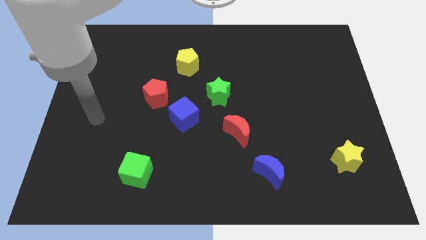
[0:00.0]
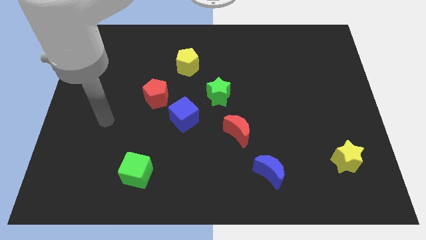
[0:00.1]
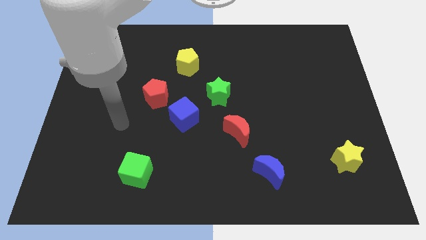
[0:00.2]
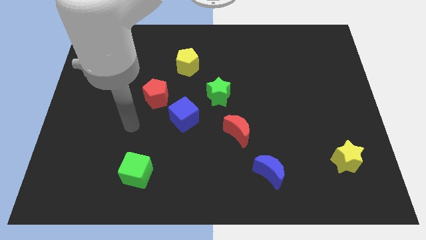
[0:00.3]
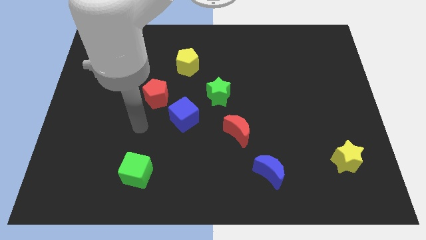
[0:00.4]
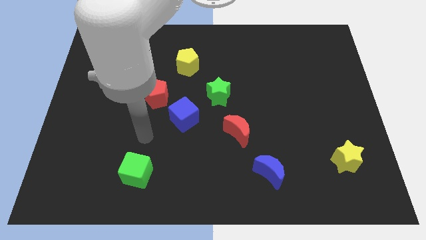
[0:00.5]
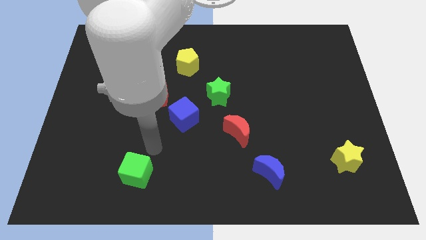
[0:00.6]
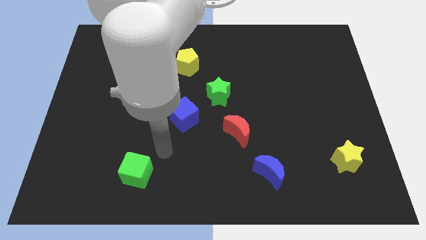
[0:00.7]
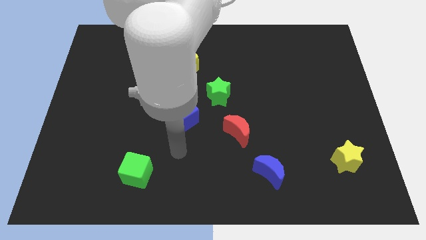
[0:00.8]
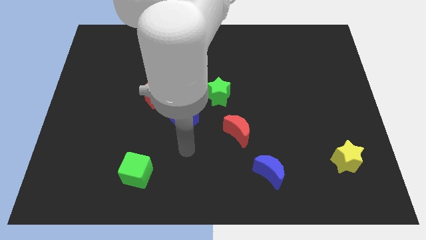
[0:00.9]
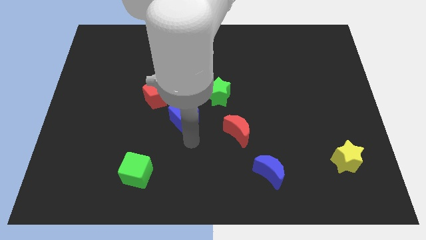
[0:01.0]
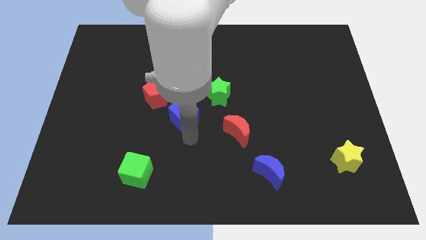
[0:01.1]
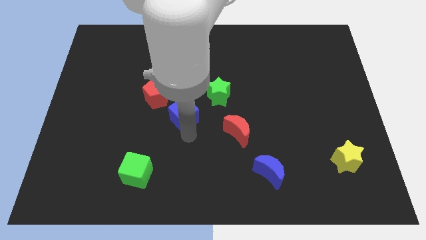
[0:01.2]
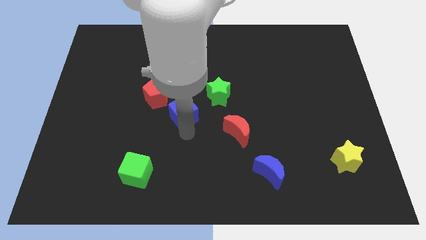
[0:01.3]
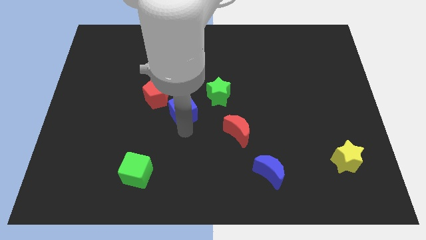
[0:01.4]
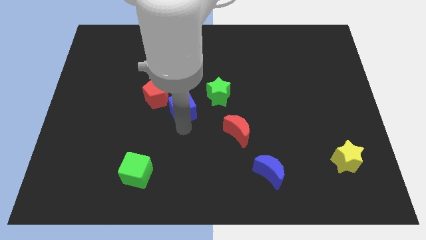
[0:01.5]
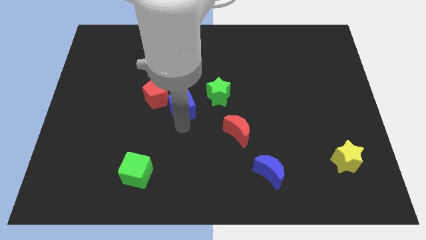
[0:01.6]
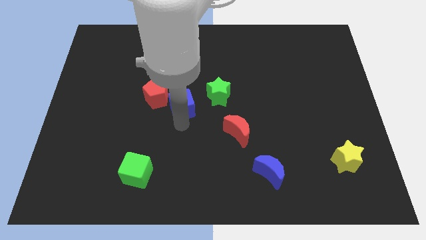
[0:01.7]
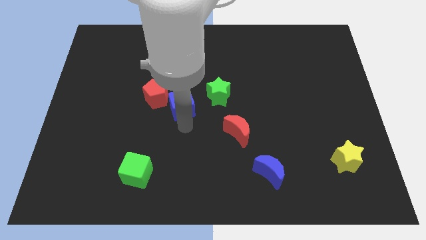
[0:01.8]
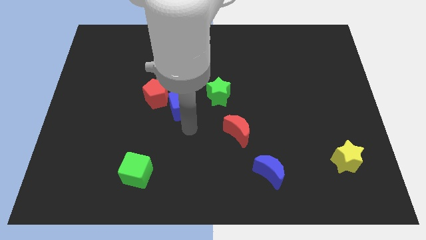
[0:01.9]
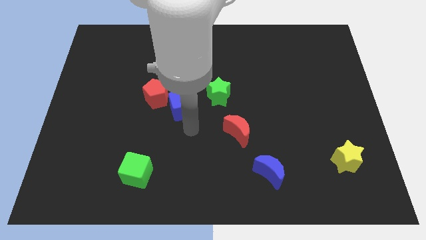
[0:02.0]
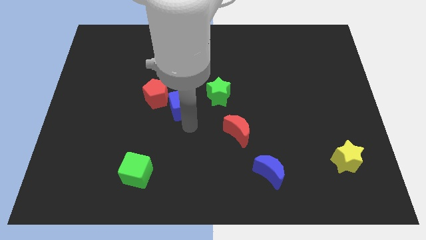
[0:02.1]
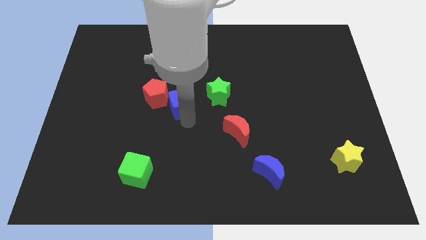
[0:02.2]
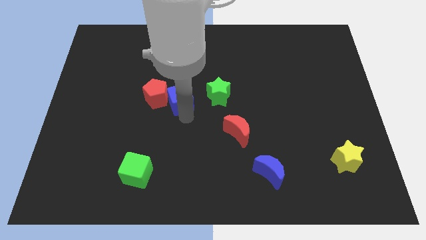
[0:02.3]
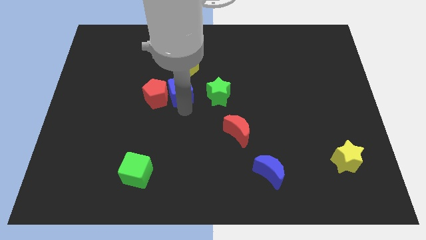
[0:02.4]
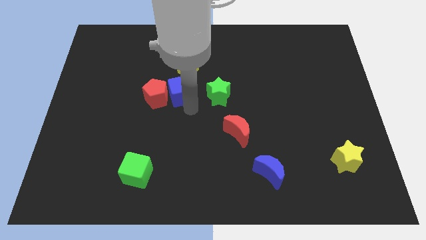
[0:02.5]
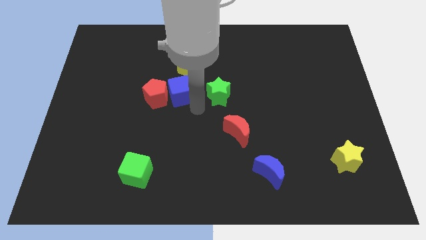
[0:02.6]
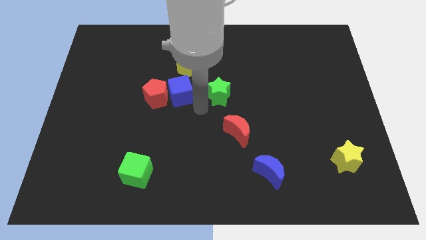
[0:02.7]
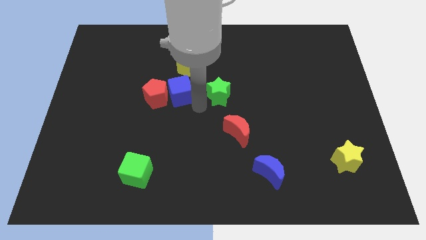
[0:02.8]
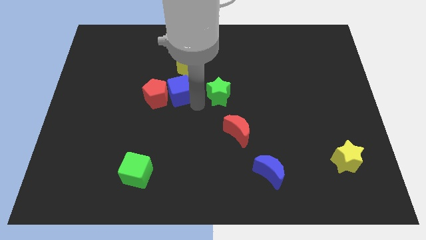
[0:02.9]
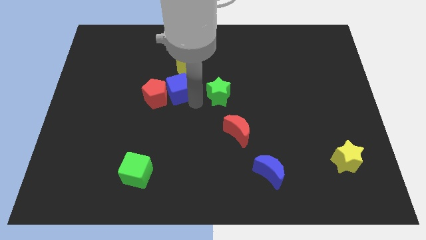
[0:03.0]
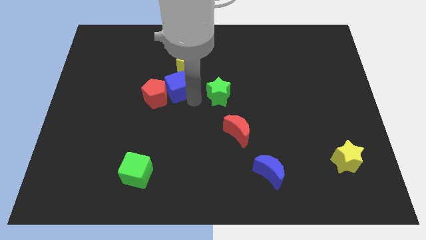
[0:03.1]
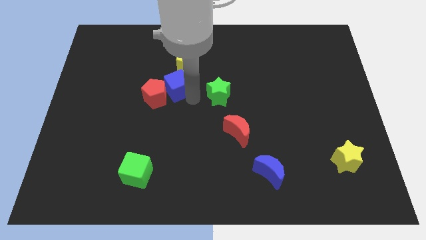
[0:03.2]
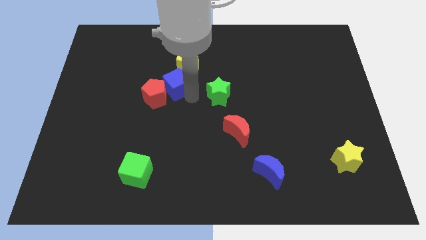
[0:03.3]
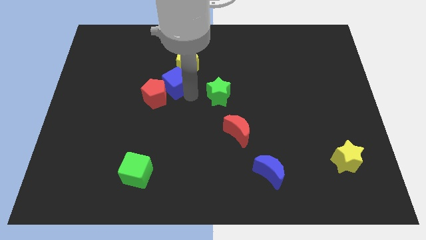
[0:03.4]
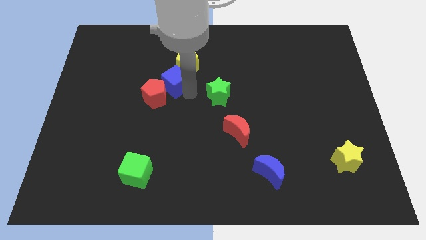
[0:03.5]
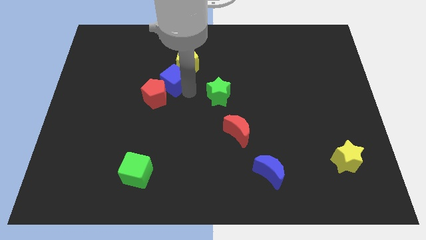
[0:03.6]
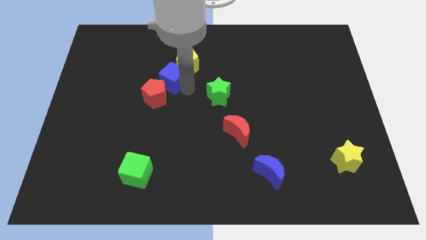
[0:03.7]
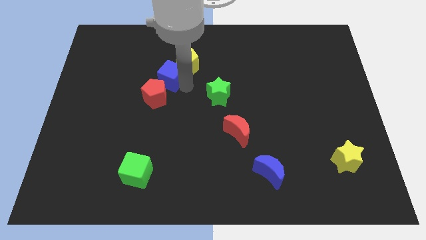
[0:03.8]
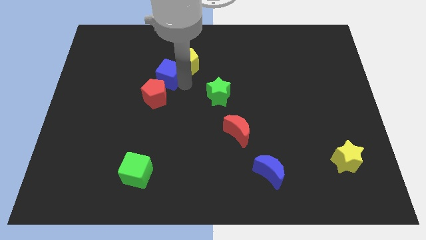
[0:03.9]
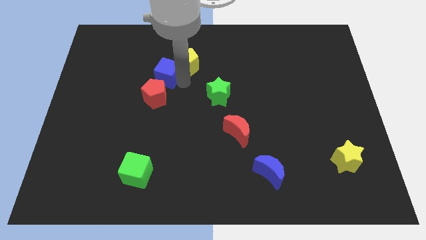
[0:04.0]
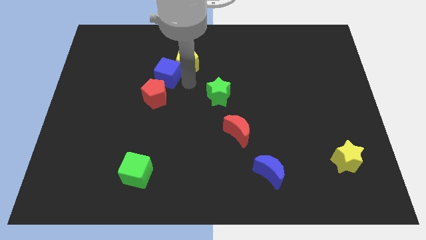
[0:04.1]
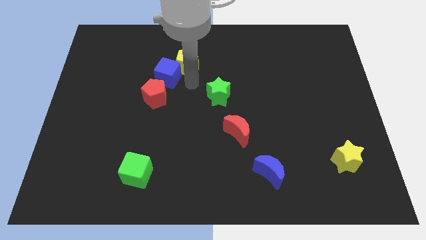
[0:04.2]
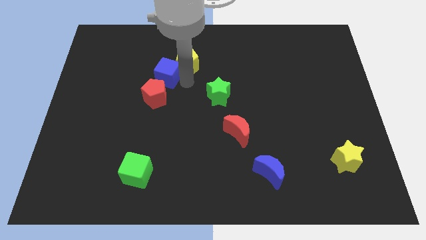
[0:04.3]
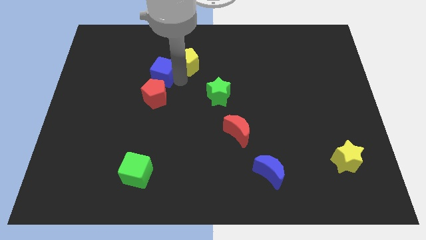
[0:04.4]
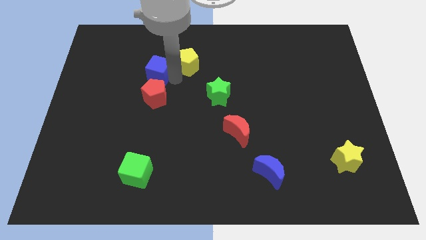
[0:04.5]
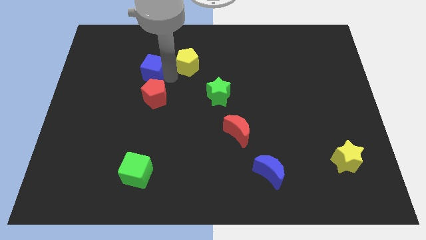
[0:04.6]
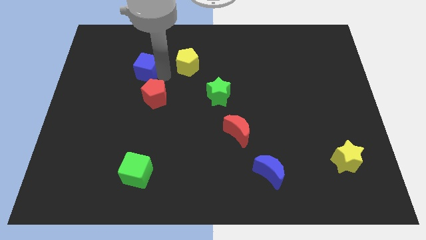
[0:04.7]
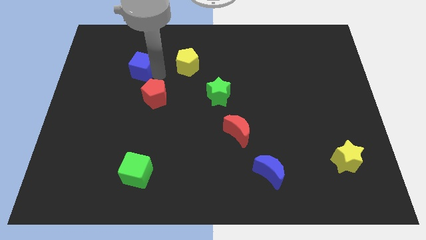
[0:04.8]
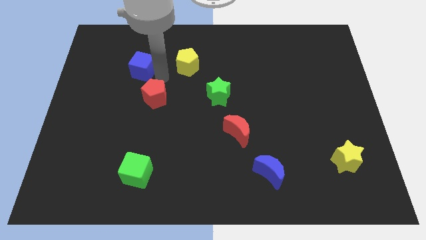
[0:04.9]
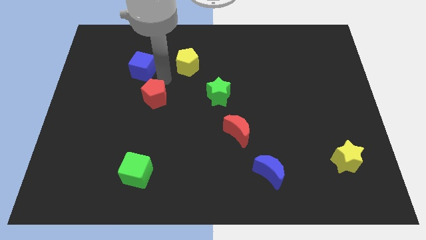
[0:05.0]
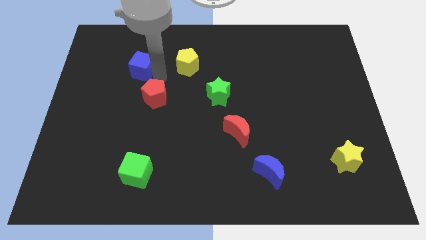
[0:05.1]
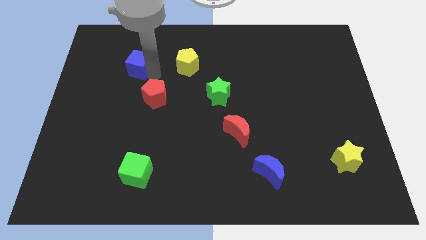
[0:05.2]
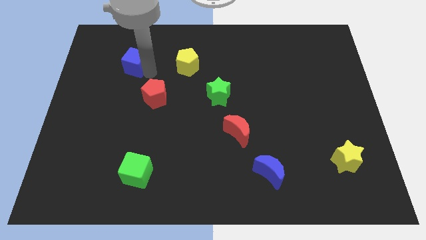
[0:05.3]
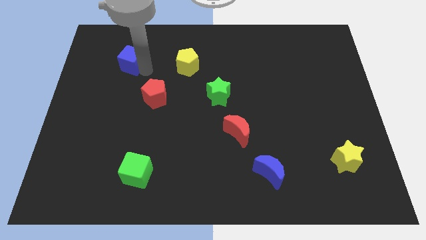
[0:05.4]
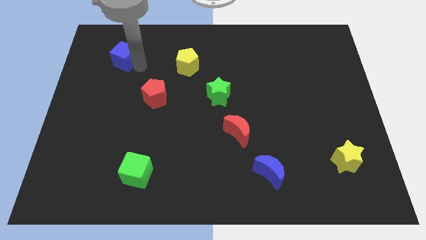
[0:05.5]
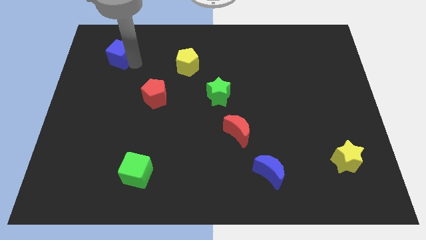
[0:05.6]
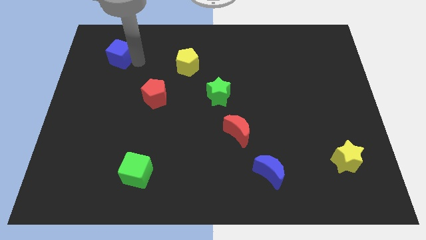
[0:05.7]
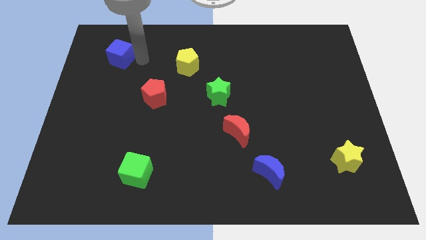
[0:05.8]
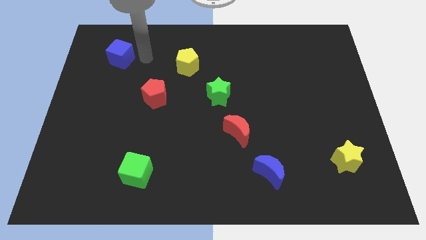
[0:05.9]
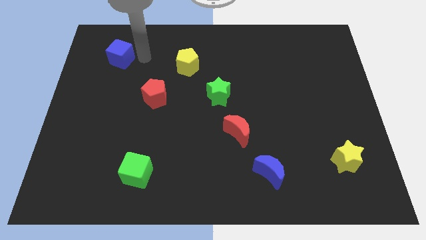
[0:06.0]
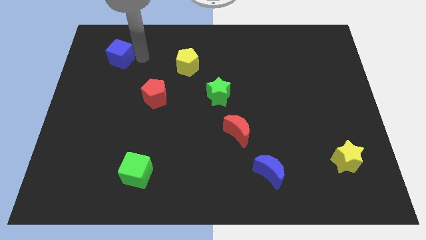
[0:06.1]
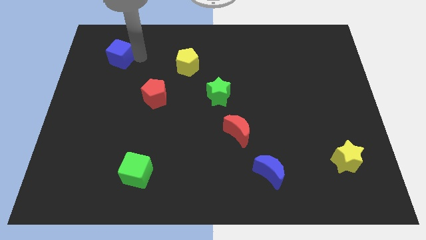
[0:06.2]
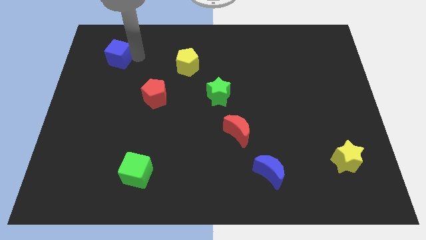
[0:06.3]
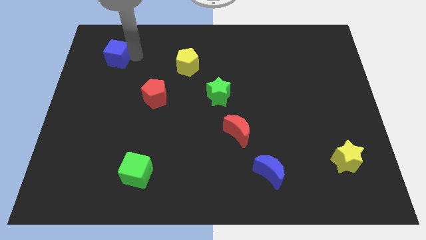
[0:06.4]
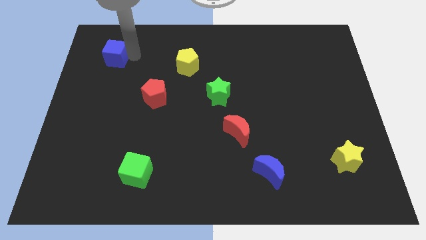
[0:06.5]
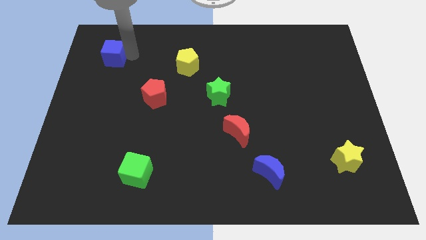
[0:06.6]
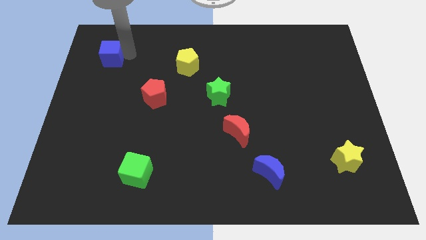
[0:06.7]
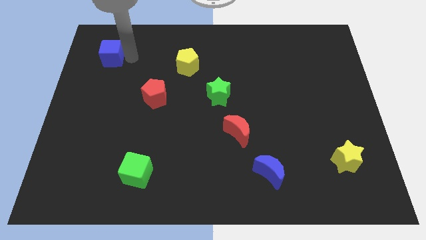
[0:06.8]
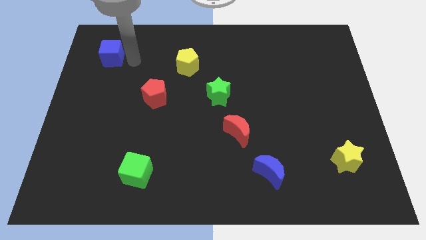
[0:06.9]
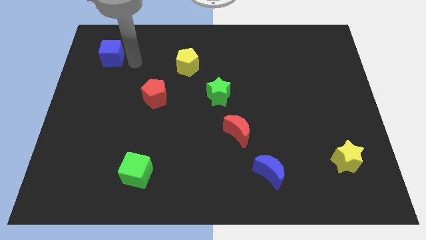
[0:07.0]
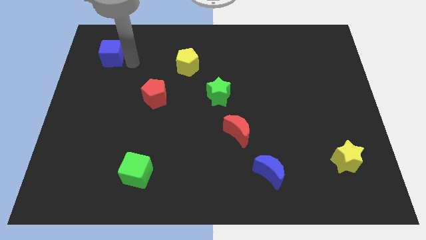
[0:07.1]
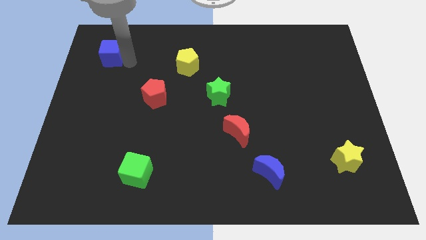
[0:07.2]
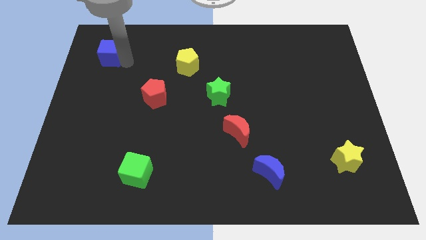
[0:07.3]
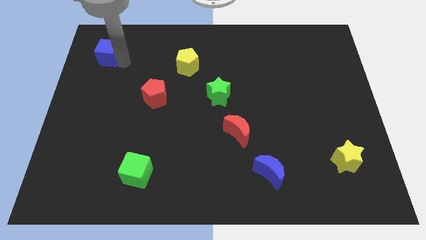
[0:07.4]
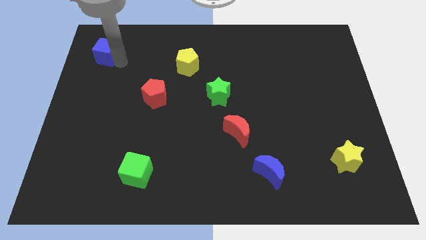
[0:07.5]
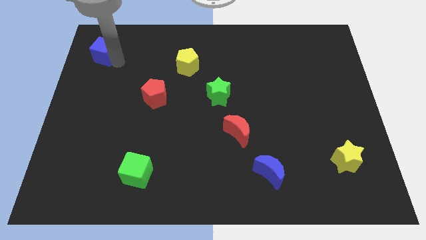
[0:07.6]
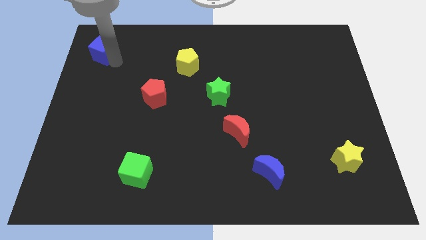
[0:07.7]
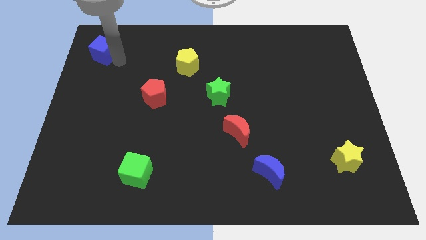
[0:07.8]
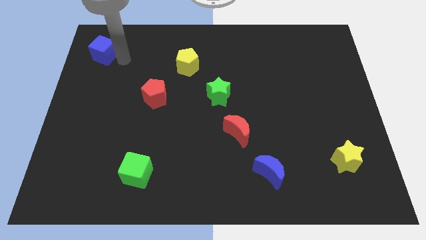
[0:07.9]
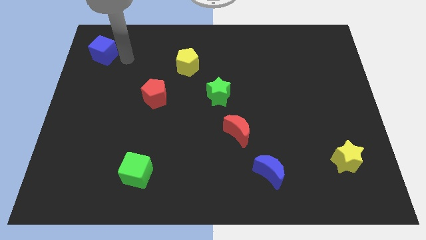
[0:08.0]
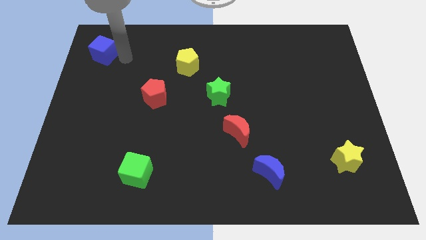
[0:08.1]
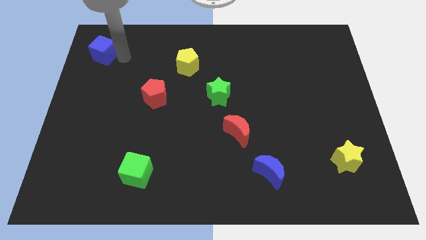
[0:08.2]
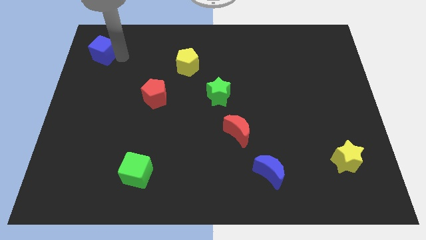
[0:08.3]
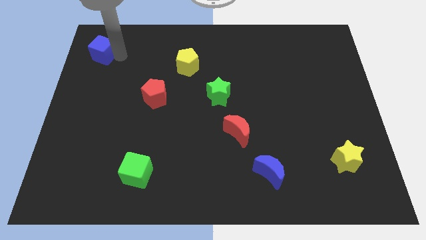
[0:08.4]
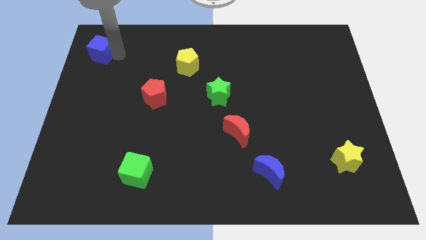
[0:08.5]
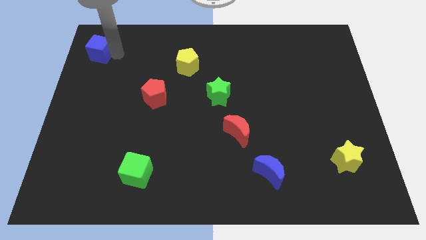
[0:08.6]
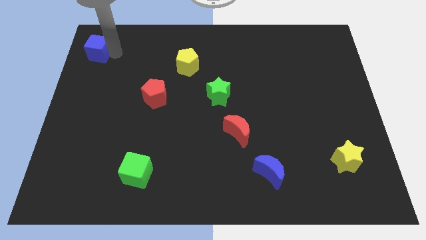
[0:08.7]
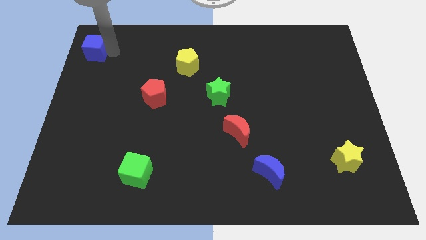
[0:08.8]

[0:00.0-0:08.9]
put the blue cube to the top left of the board
